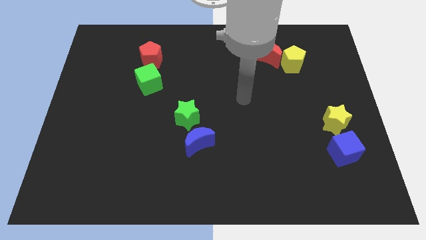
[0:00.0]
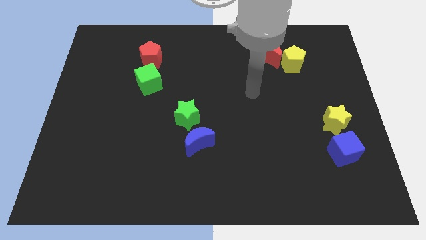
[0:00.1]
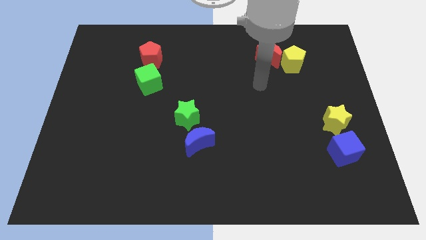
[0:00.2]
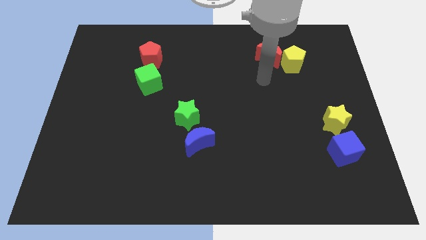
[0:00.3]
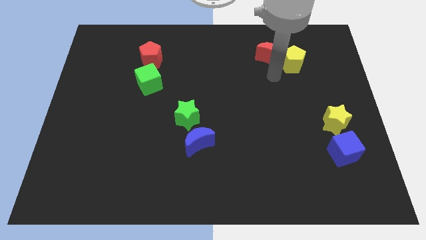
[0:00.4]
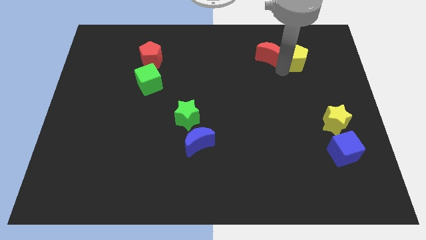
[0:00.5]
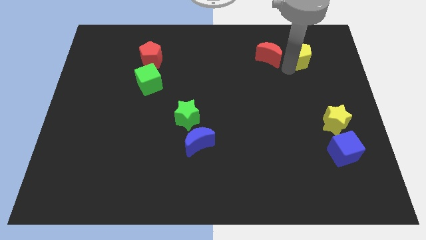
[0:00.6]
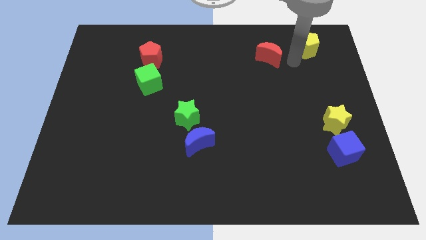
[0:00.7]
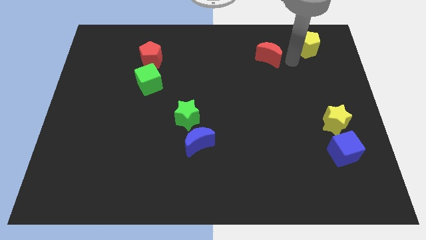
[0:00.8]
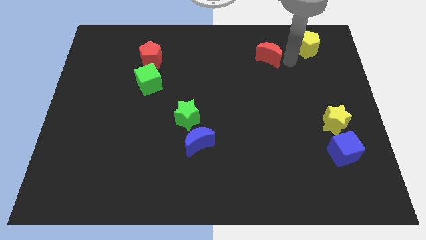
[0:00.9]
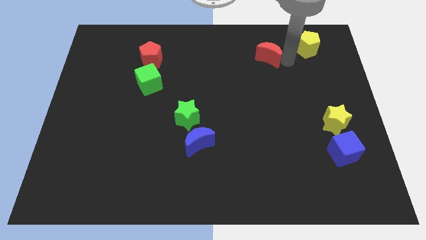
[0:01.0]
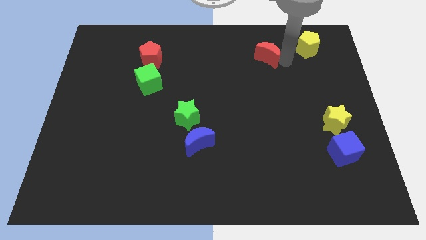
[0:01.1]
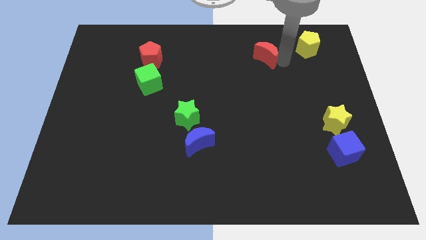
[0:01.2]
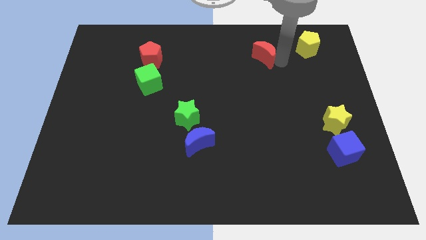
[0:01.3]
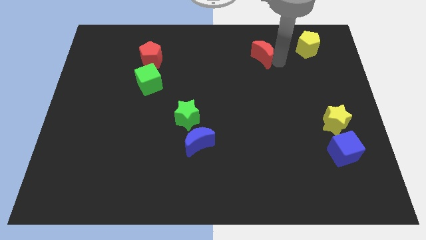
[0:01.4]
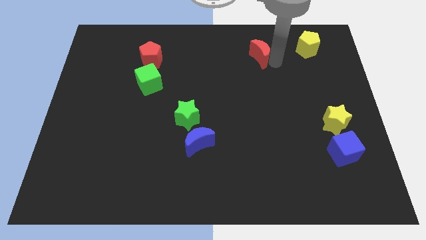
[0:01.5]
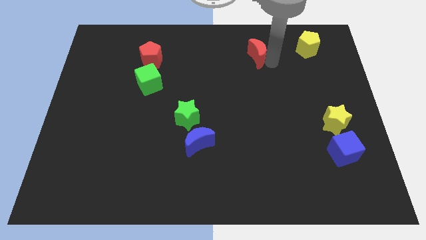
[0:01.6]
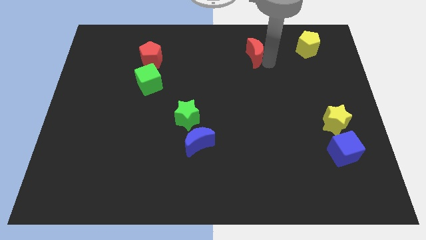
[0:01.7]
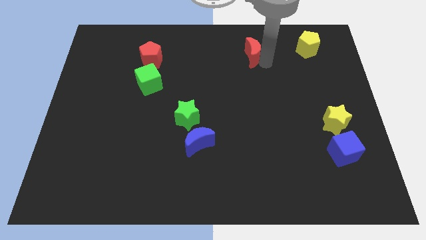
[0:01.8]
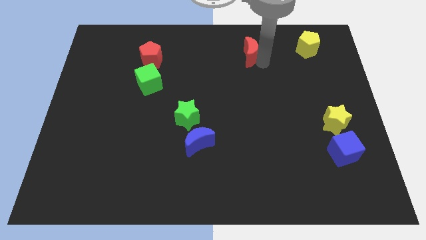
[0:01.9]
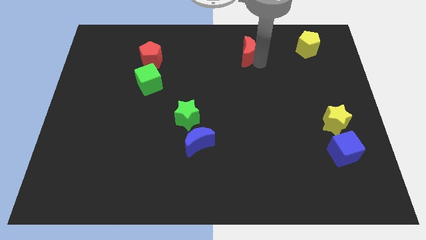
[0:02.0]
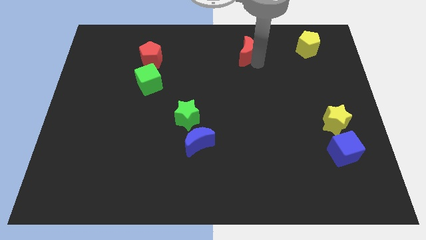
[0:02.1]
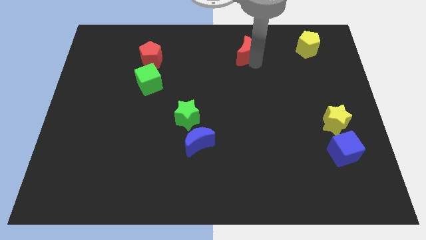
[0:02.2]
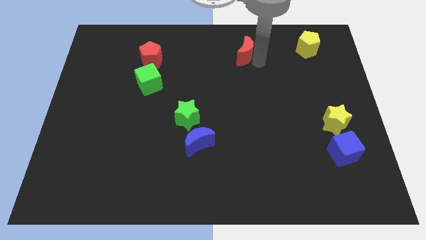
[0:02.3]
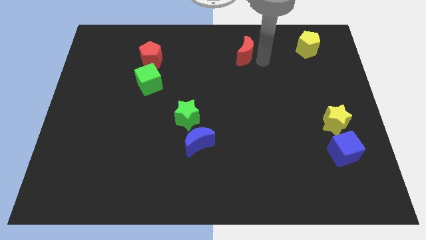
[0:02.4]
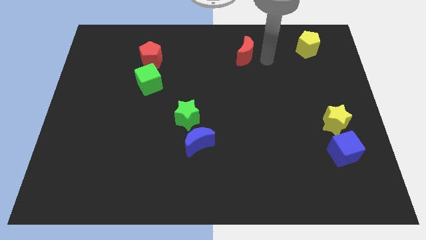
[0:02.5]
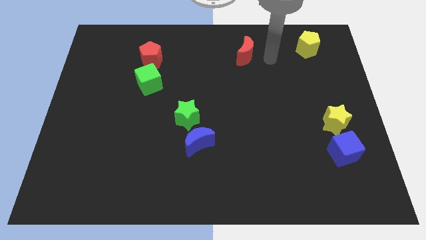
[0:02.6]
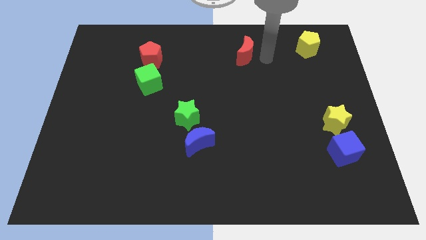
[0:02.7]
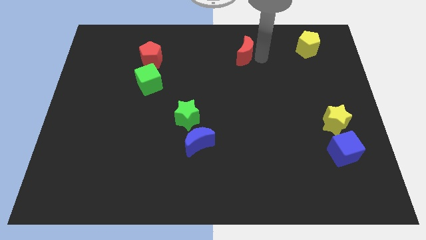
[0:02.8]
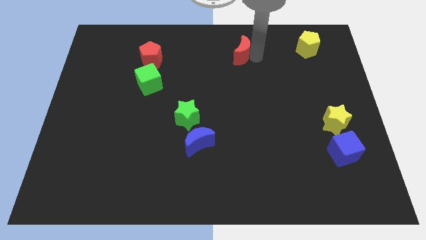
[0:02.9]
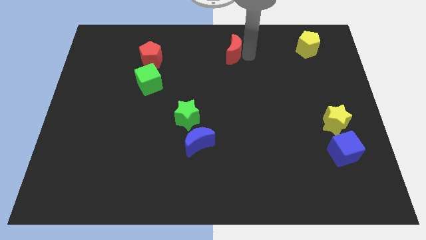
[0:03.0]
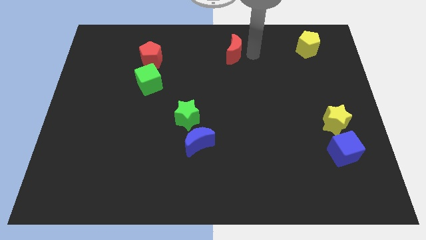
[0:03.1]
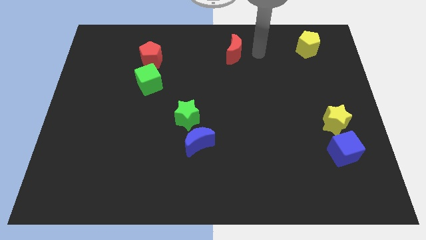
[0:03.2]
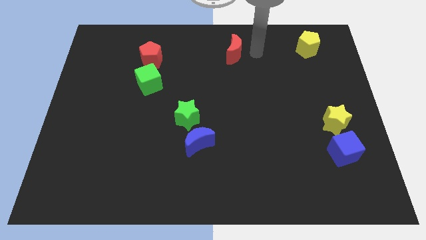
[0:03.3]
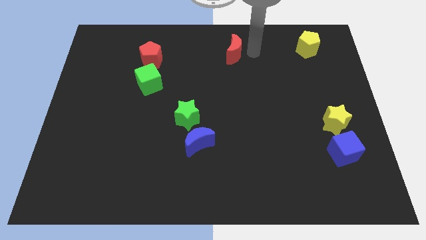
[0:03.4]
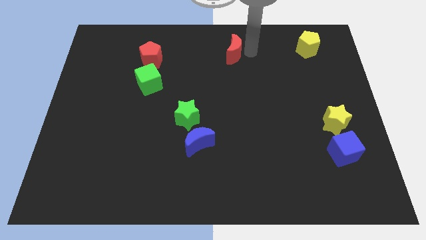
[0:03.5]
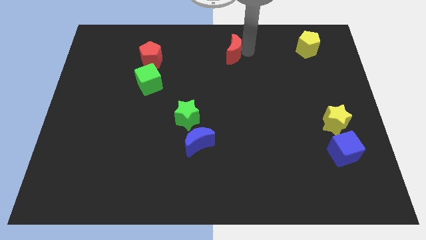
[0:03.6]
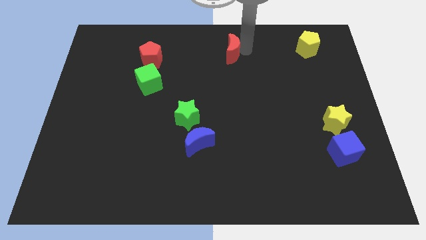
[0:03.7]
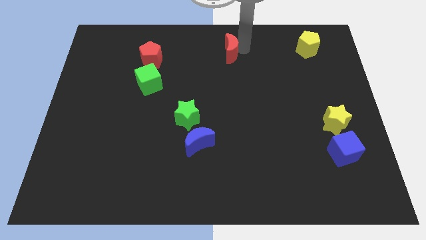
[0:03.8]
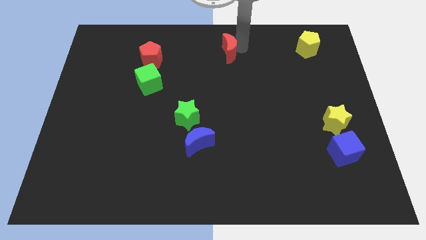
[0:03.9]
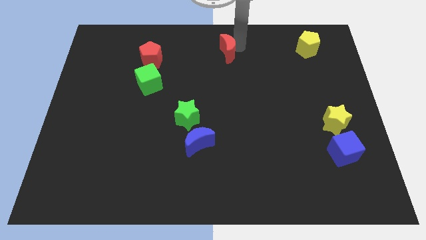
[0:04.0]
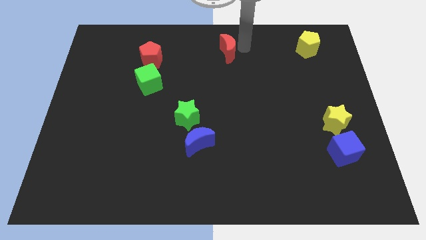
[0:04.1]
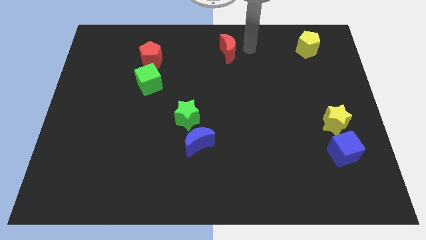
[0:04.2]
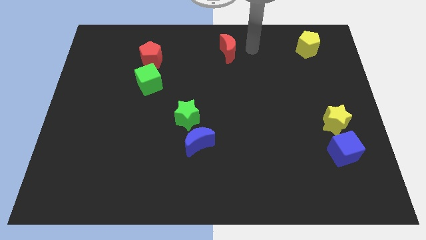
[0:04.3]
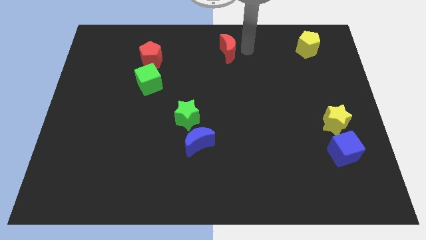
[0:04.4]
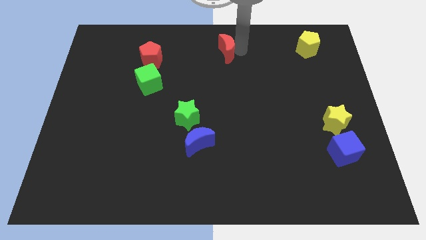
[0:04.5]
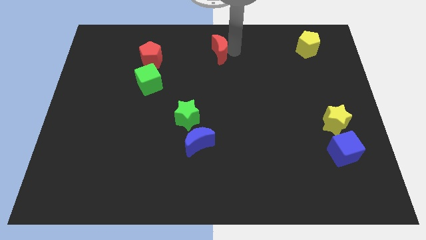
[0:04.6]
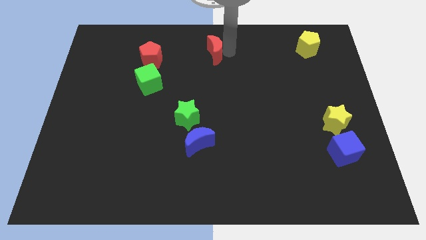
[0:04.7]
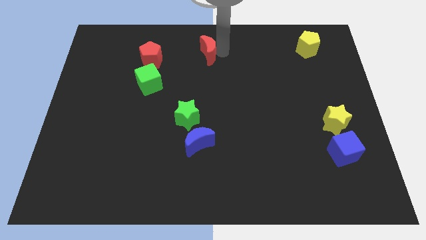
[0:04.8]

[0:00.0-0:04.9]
push the red moon just right of the red pentagon

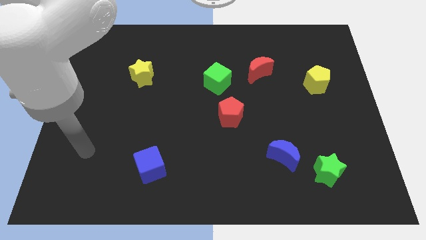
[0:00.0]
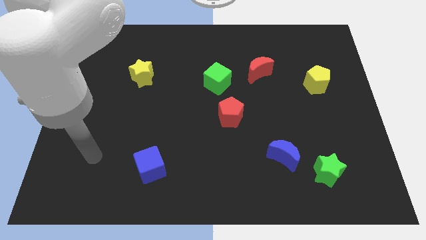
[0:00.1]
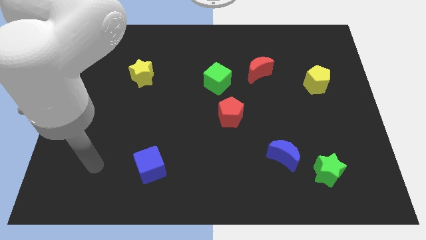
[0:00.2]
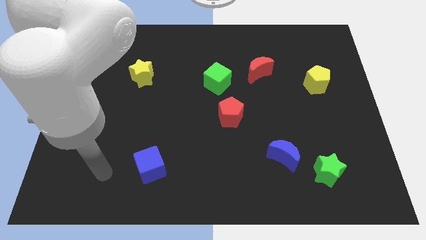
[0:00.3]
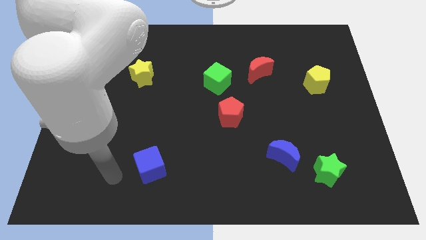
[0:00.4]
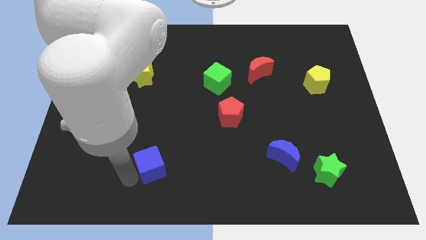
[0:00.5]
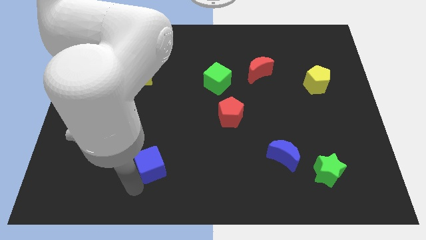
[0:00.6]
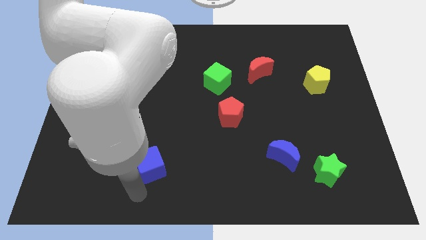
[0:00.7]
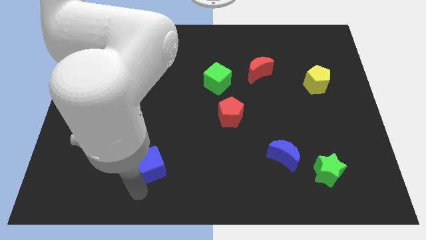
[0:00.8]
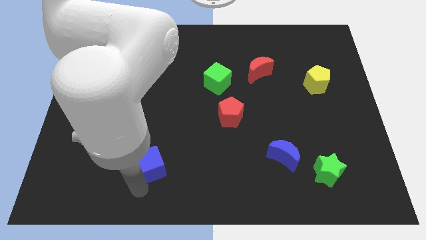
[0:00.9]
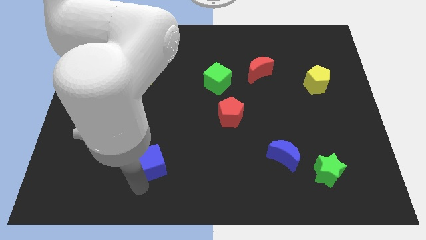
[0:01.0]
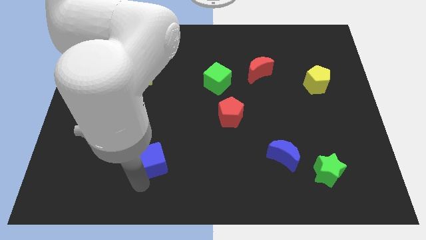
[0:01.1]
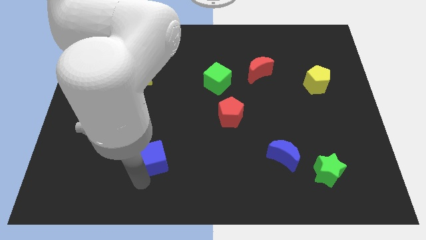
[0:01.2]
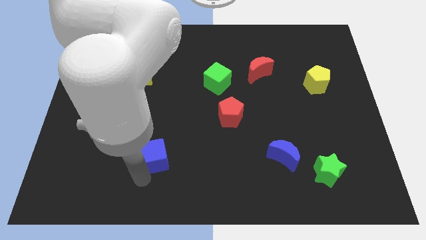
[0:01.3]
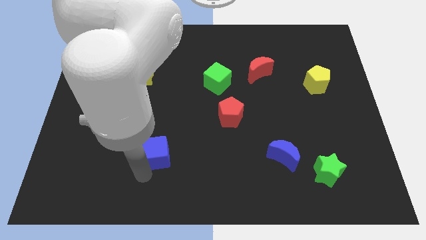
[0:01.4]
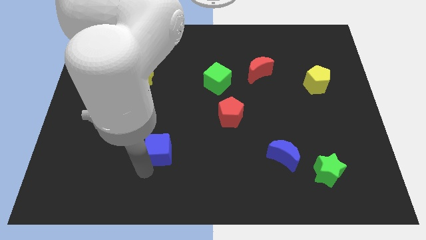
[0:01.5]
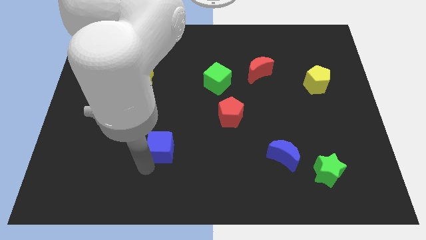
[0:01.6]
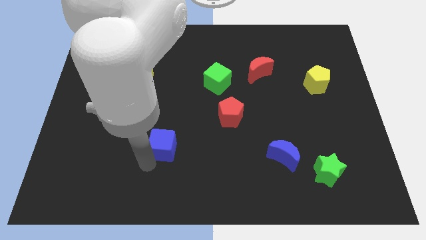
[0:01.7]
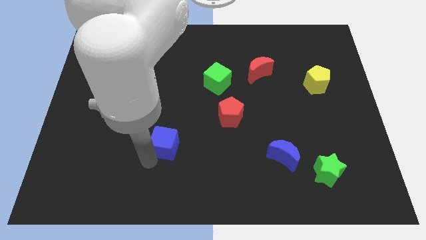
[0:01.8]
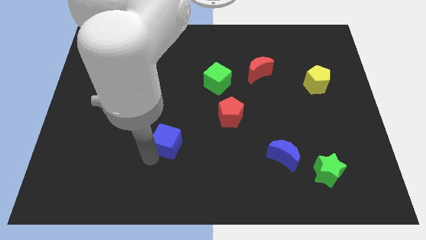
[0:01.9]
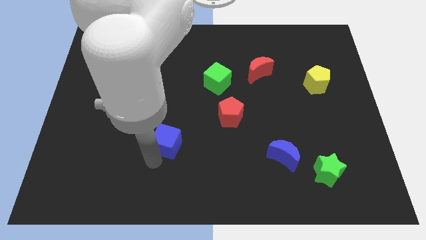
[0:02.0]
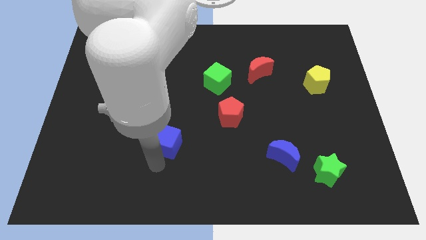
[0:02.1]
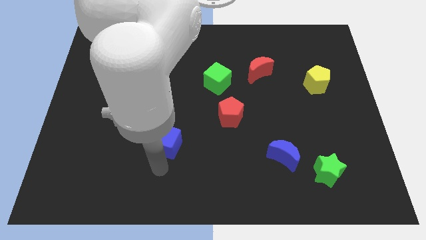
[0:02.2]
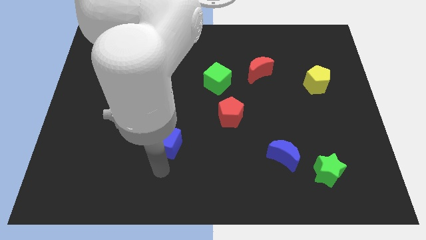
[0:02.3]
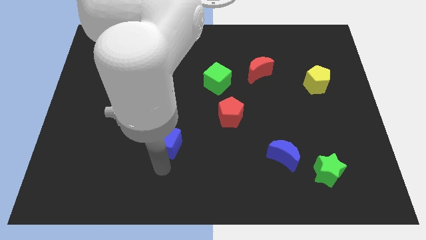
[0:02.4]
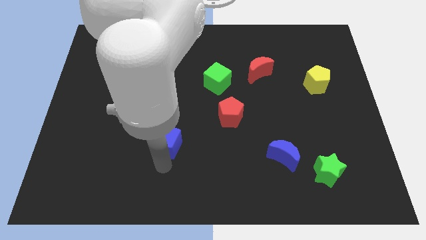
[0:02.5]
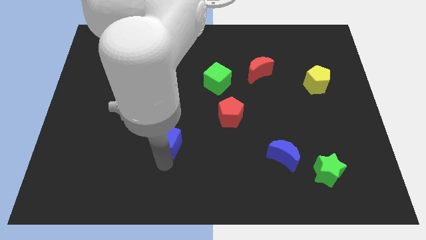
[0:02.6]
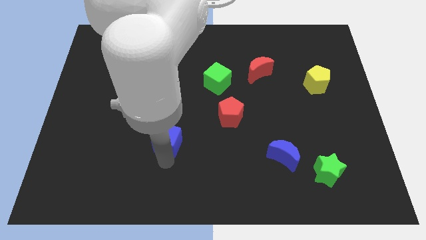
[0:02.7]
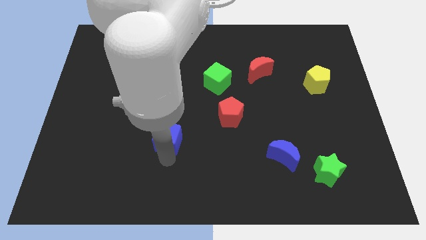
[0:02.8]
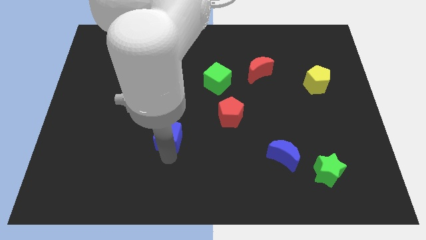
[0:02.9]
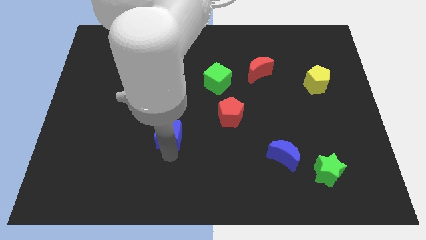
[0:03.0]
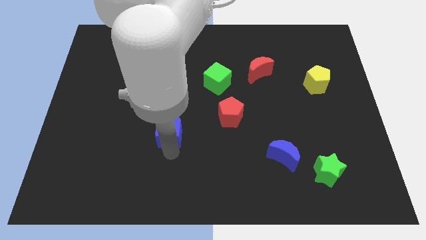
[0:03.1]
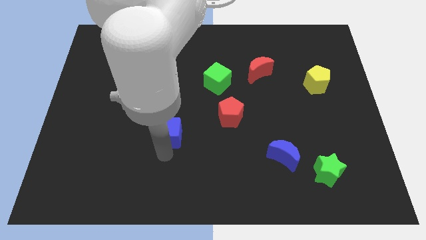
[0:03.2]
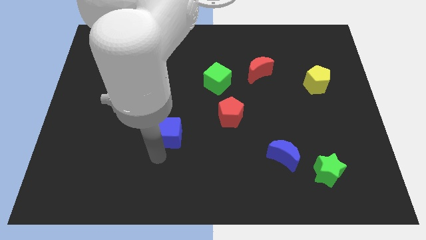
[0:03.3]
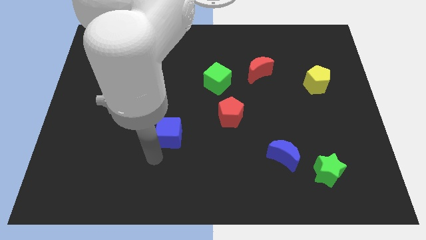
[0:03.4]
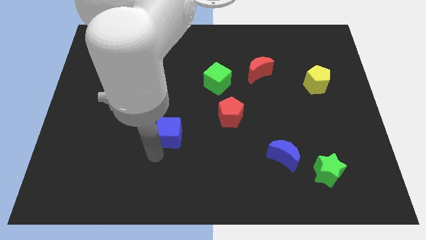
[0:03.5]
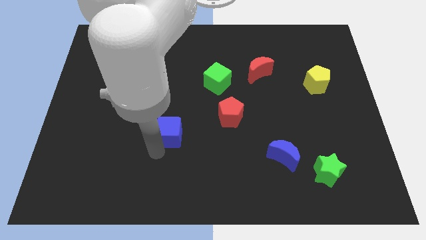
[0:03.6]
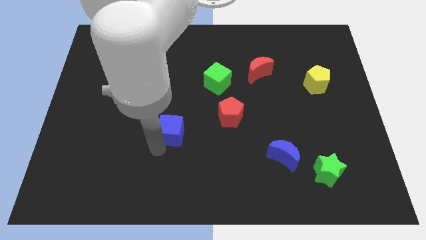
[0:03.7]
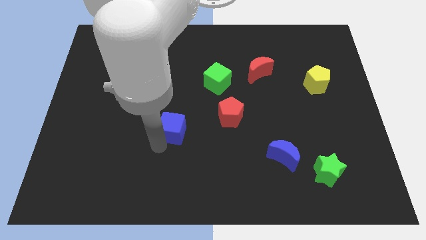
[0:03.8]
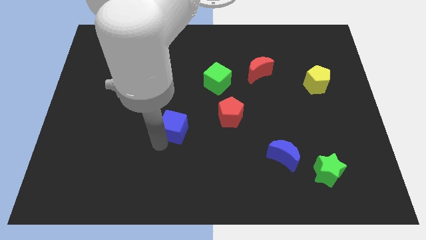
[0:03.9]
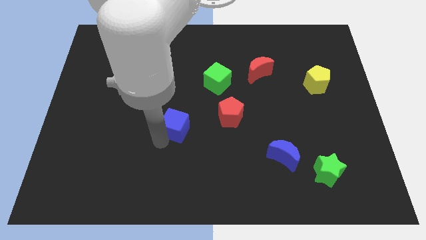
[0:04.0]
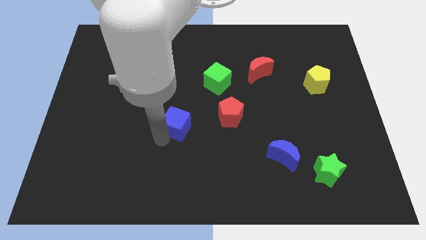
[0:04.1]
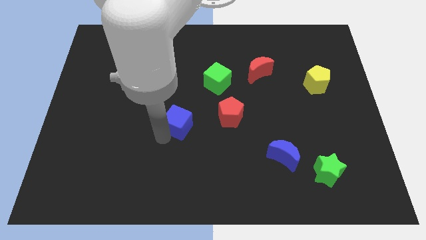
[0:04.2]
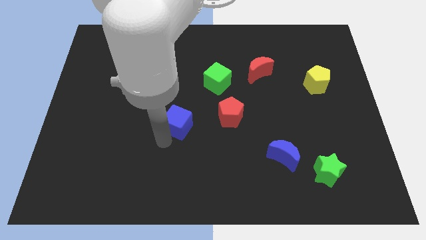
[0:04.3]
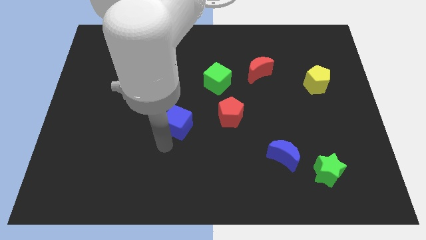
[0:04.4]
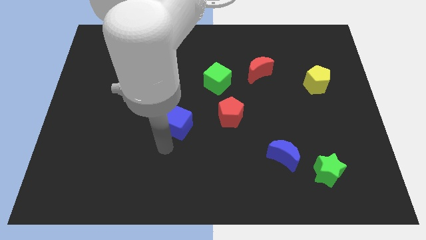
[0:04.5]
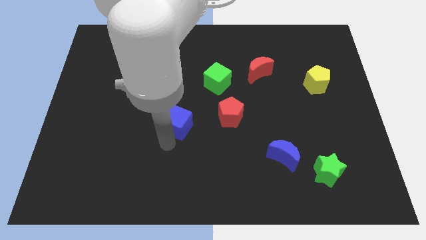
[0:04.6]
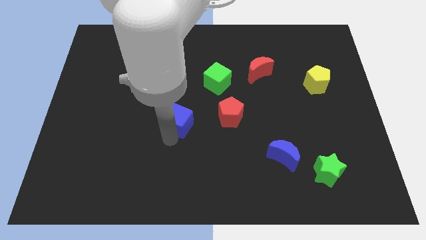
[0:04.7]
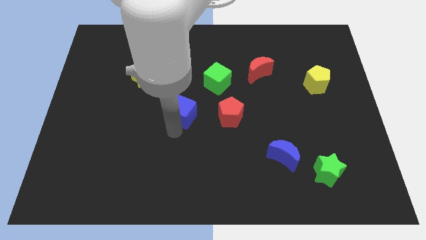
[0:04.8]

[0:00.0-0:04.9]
move the blue cube diagonally down and to the left of the green cube
